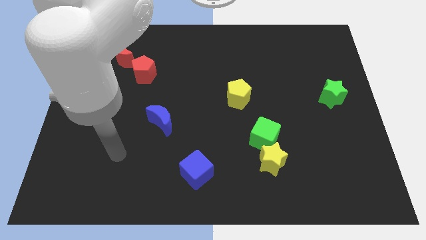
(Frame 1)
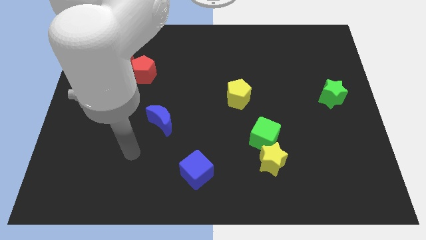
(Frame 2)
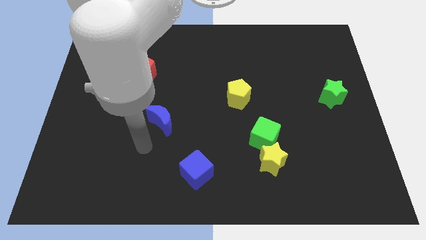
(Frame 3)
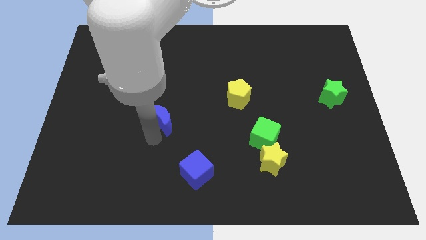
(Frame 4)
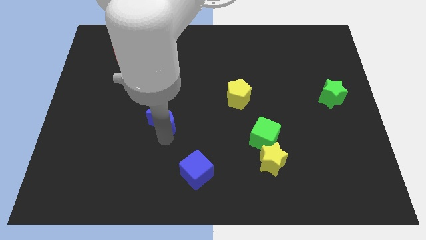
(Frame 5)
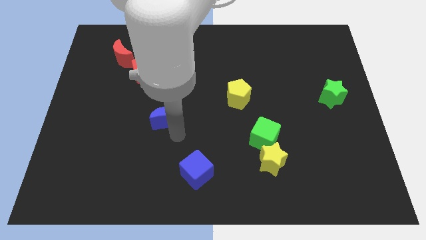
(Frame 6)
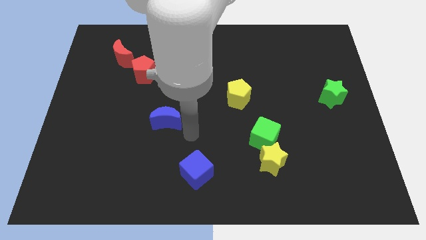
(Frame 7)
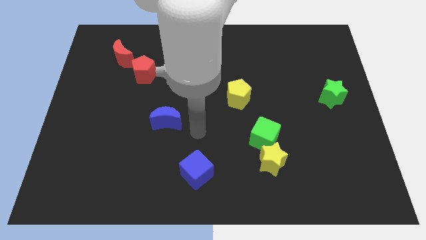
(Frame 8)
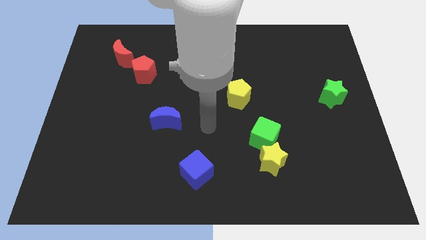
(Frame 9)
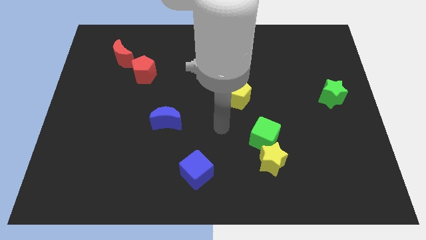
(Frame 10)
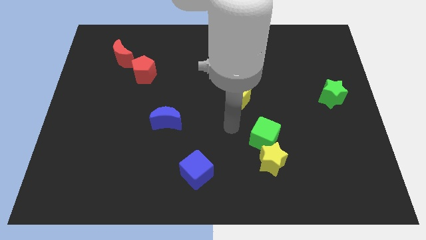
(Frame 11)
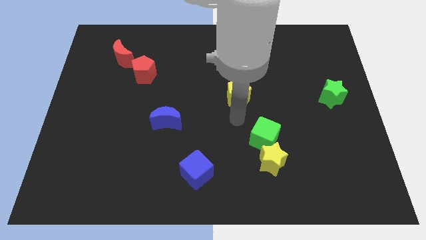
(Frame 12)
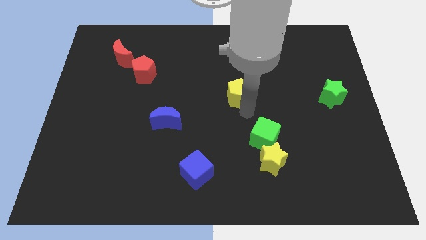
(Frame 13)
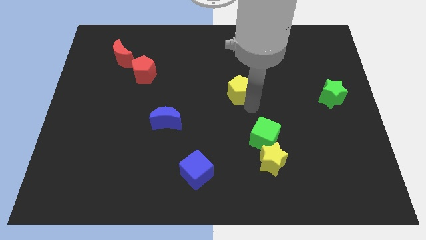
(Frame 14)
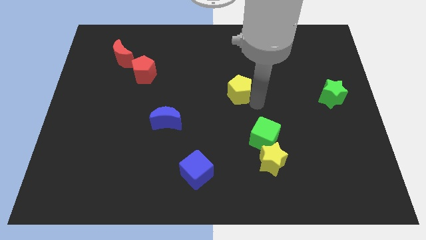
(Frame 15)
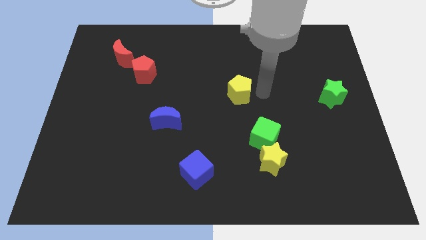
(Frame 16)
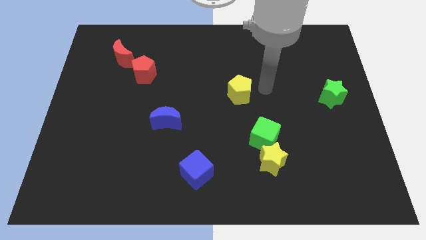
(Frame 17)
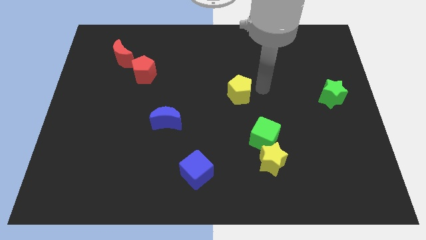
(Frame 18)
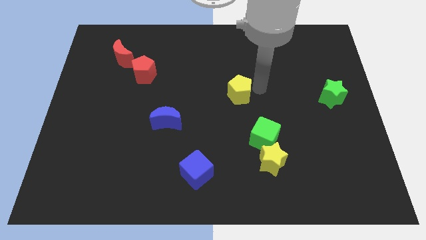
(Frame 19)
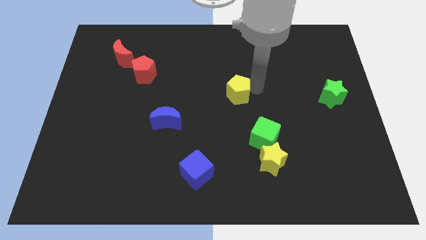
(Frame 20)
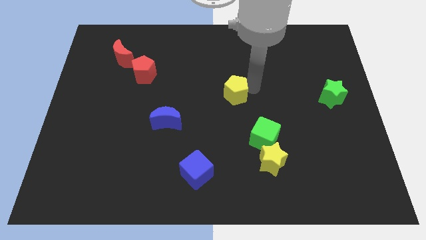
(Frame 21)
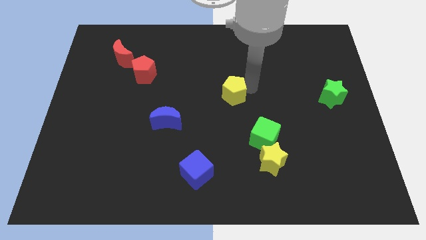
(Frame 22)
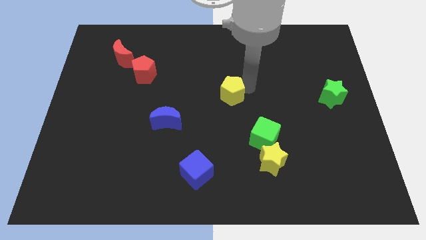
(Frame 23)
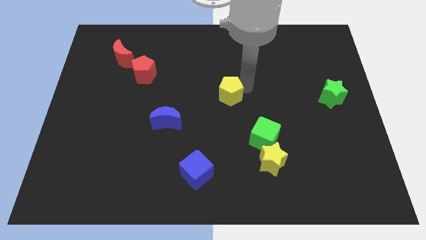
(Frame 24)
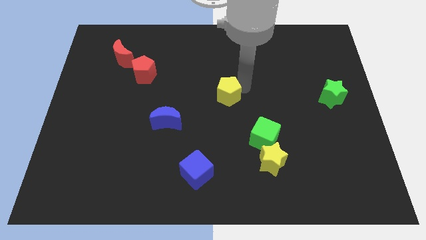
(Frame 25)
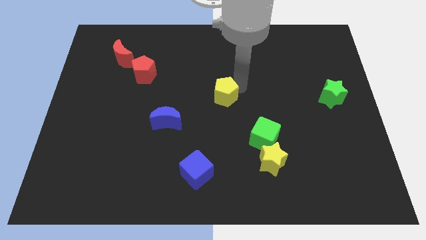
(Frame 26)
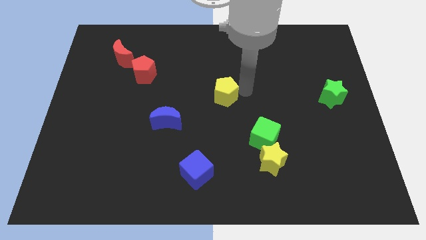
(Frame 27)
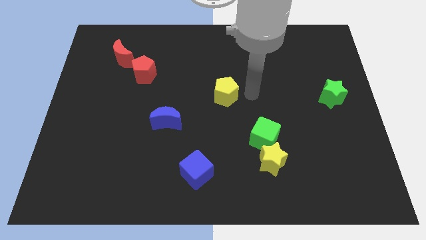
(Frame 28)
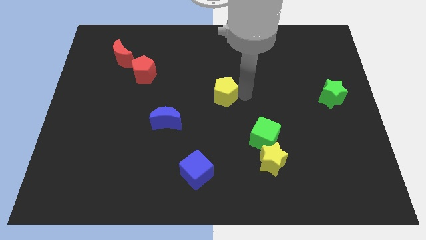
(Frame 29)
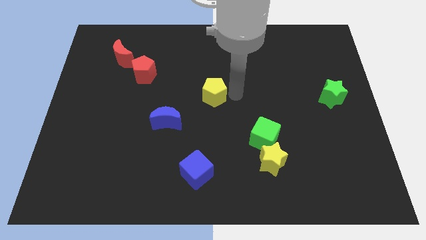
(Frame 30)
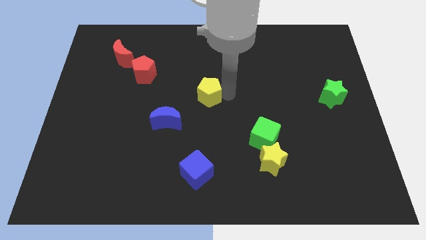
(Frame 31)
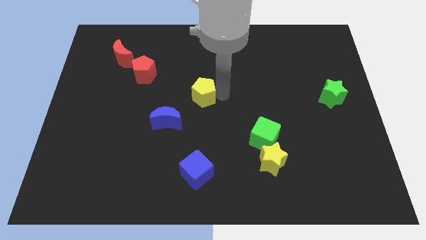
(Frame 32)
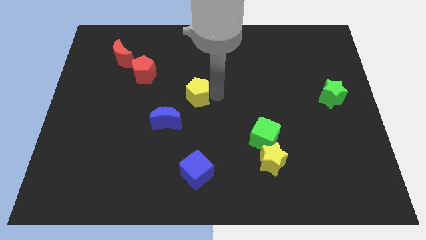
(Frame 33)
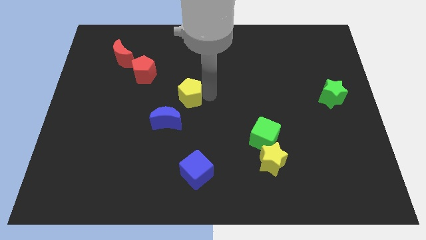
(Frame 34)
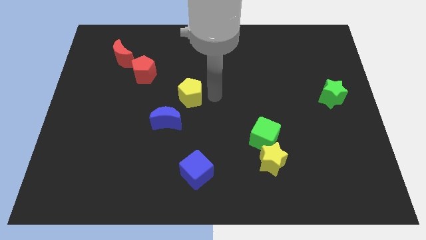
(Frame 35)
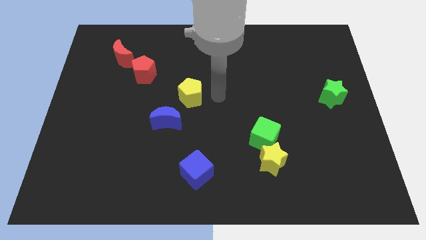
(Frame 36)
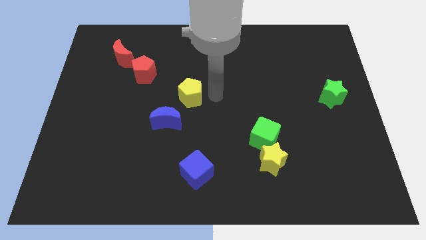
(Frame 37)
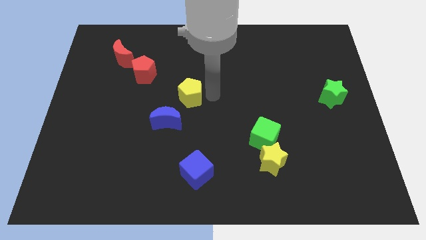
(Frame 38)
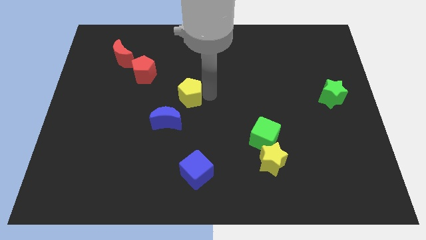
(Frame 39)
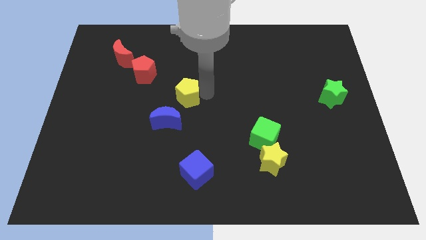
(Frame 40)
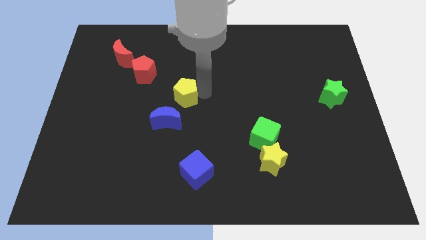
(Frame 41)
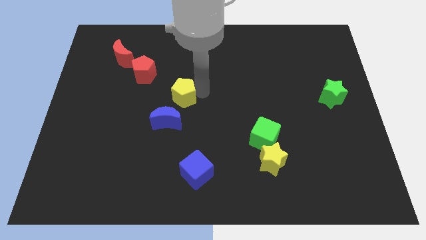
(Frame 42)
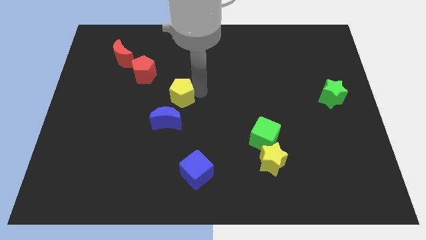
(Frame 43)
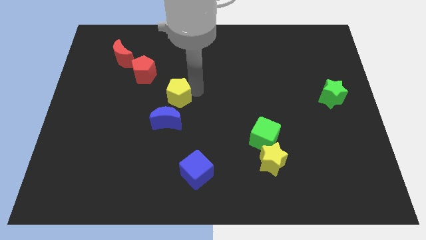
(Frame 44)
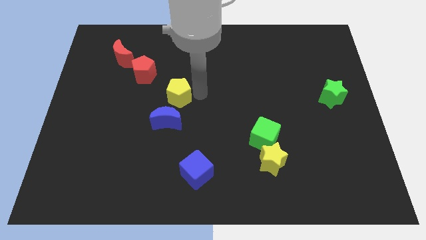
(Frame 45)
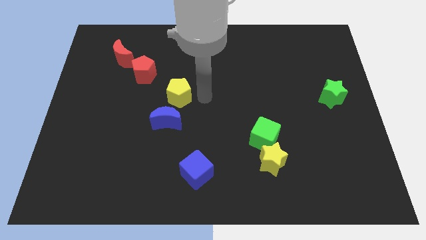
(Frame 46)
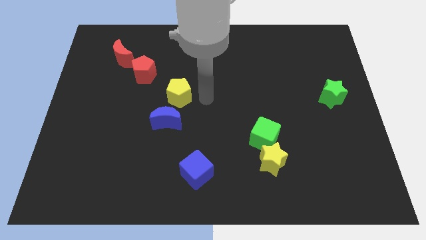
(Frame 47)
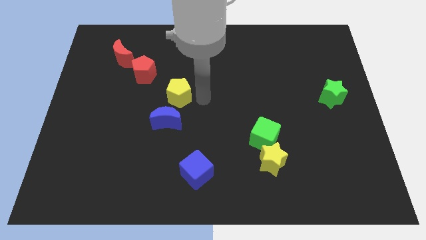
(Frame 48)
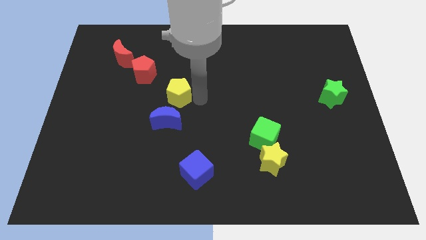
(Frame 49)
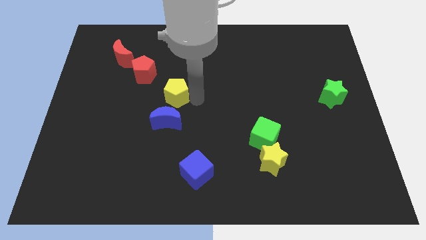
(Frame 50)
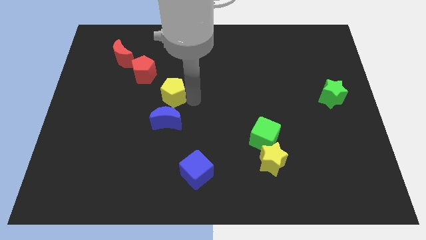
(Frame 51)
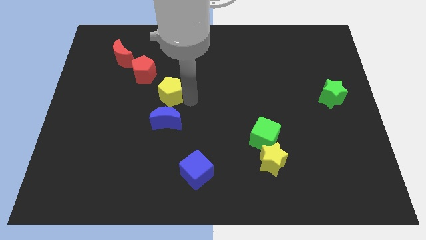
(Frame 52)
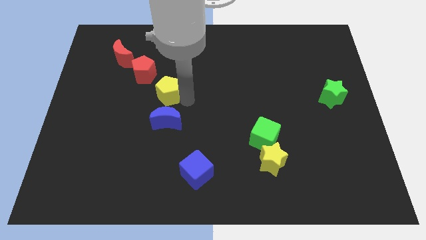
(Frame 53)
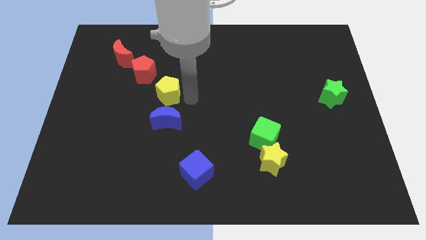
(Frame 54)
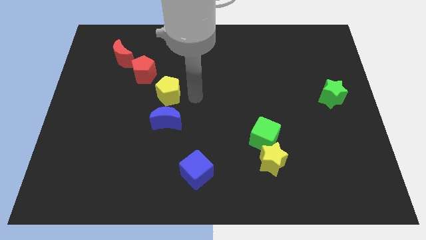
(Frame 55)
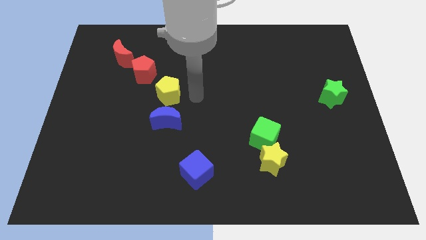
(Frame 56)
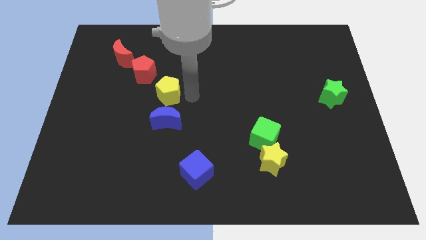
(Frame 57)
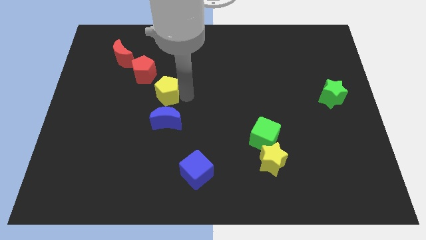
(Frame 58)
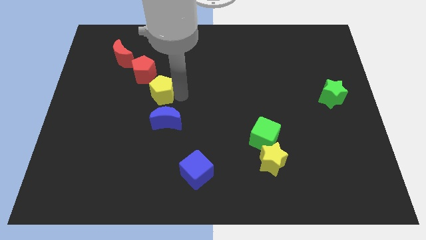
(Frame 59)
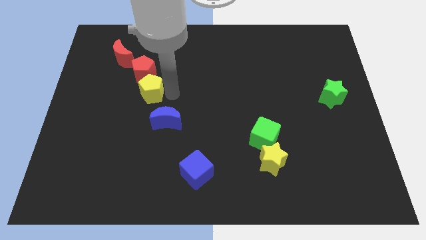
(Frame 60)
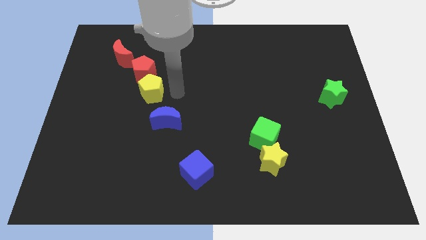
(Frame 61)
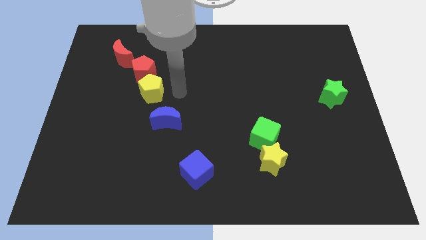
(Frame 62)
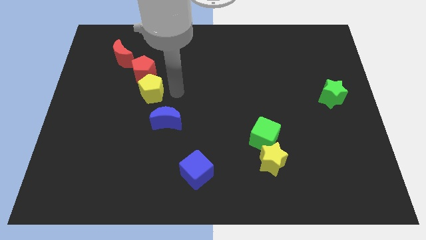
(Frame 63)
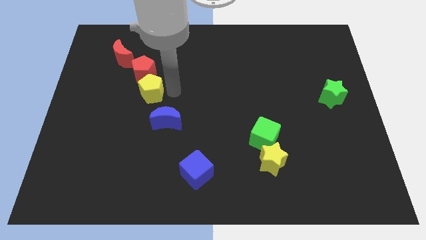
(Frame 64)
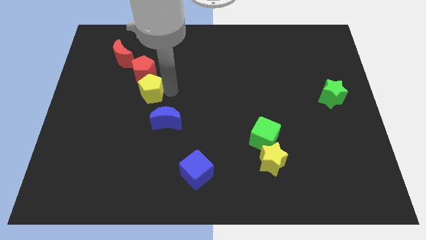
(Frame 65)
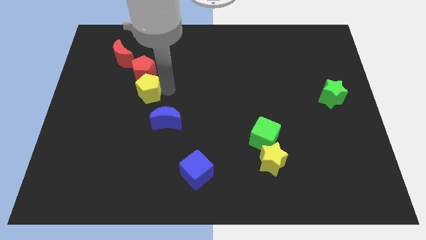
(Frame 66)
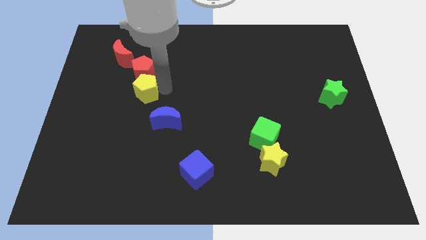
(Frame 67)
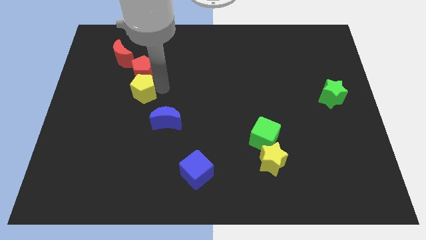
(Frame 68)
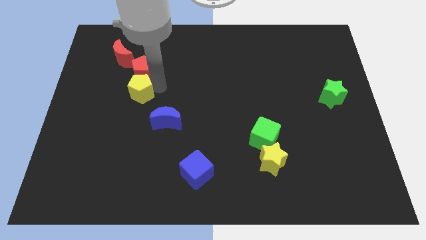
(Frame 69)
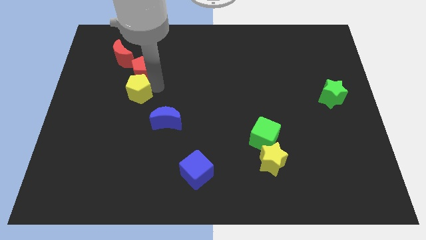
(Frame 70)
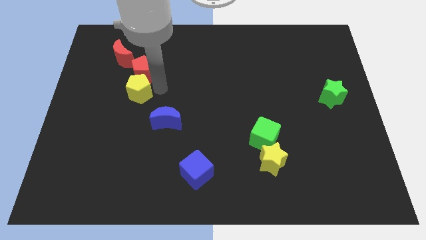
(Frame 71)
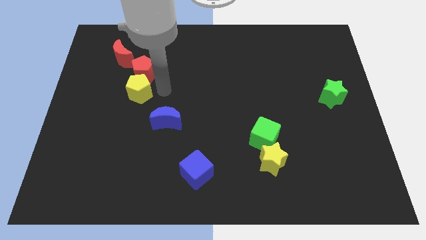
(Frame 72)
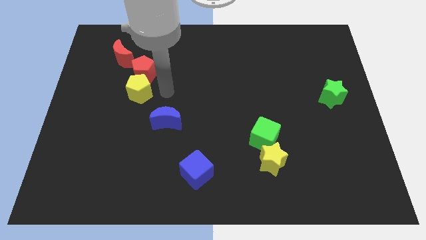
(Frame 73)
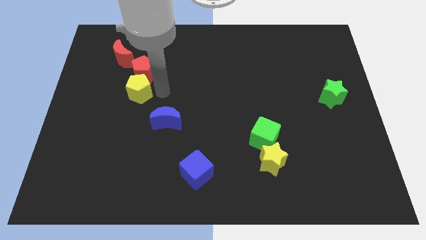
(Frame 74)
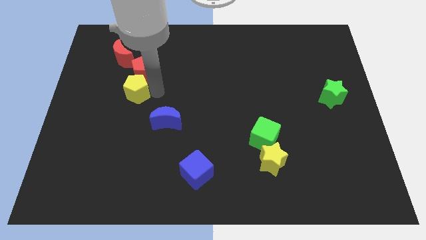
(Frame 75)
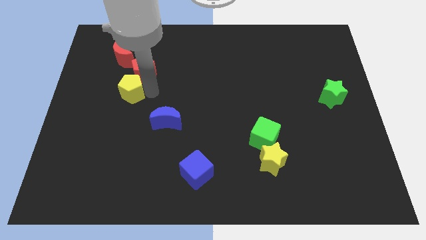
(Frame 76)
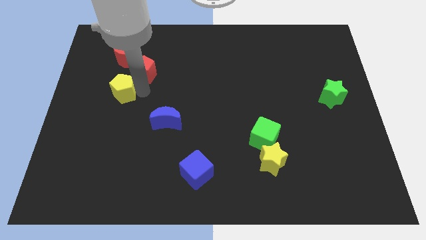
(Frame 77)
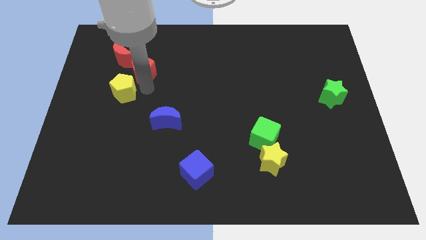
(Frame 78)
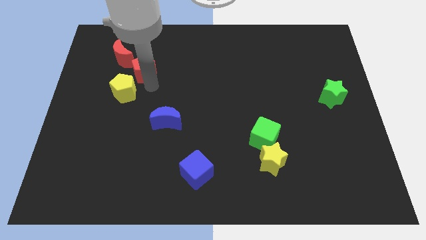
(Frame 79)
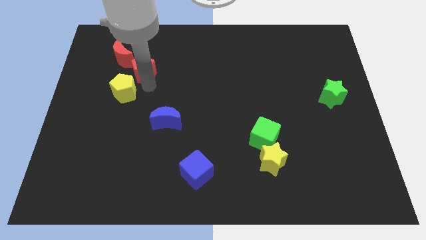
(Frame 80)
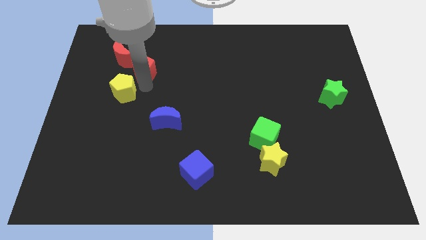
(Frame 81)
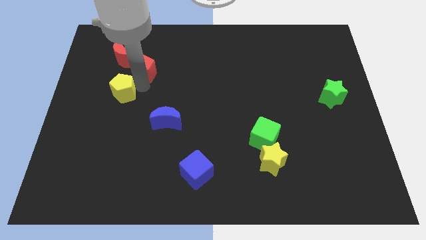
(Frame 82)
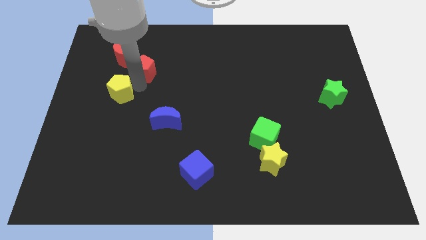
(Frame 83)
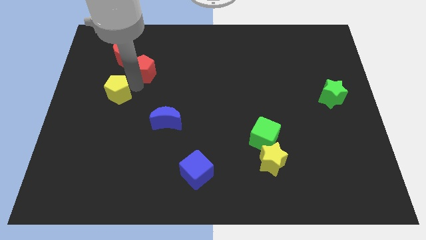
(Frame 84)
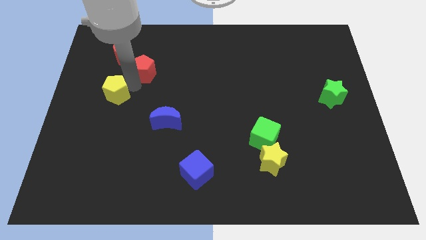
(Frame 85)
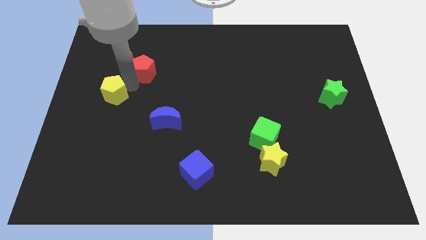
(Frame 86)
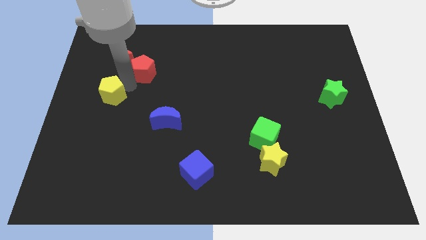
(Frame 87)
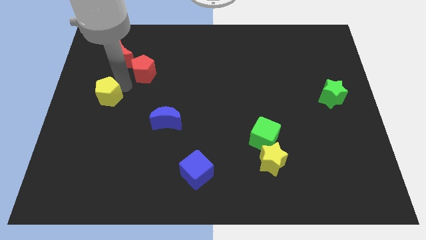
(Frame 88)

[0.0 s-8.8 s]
push the yellow pentagon to the left side
